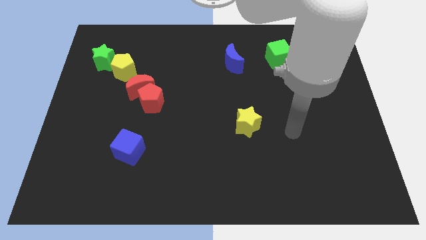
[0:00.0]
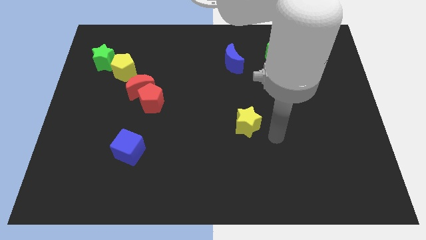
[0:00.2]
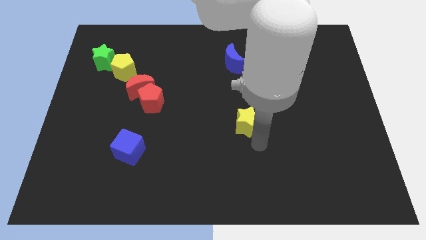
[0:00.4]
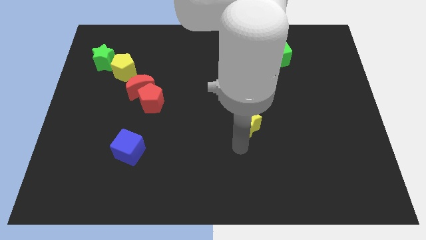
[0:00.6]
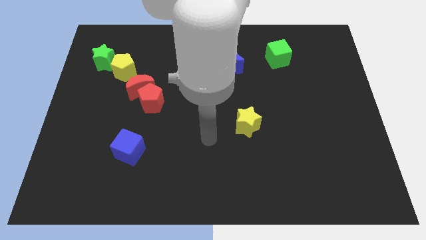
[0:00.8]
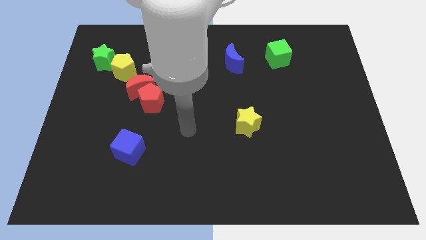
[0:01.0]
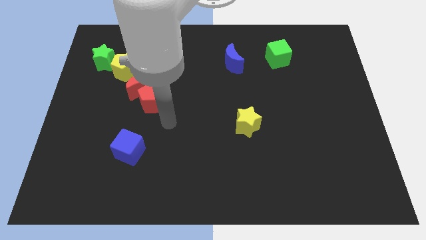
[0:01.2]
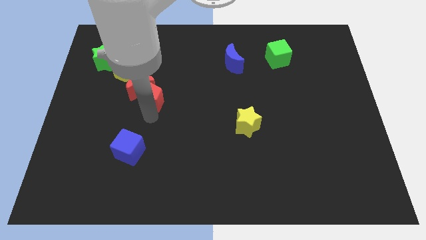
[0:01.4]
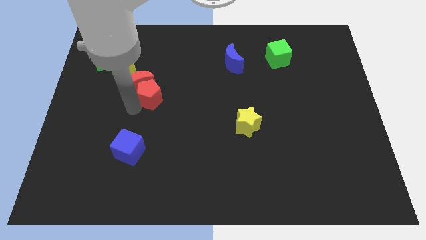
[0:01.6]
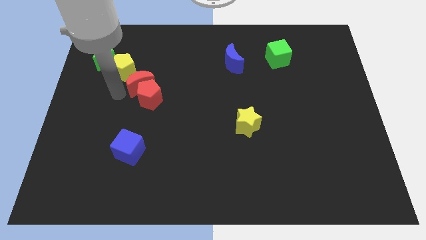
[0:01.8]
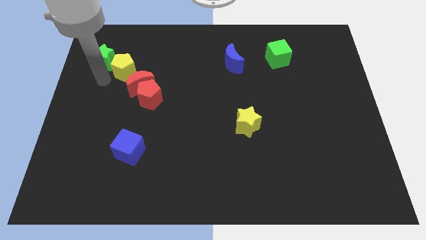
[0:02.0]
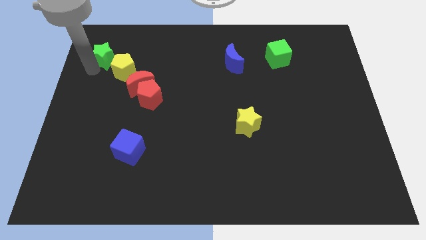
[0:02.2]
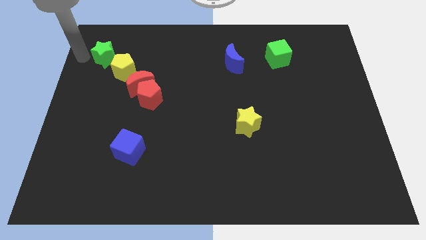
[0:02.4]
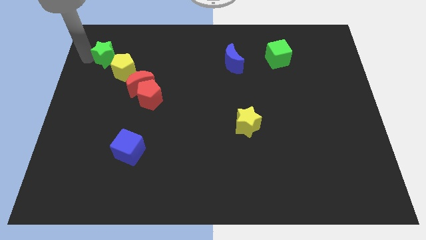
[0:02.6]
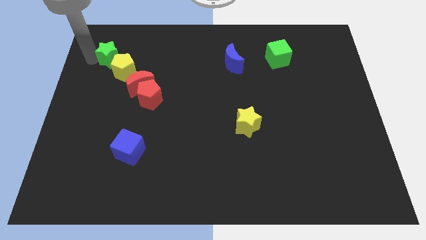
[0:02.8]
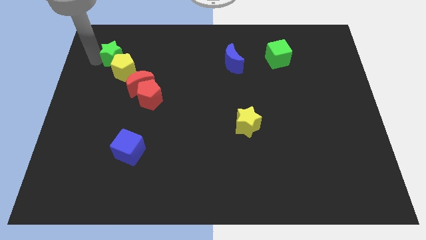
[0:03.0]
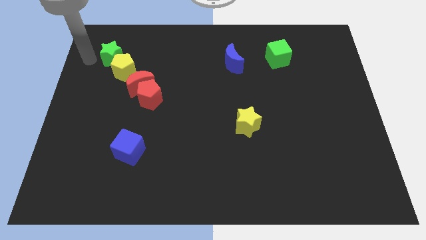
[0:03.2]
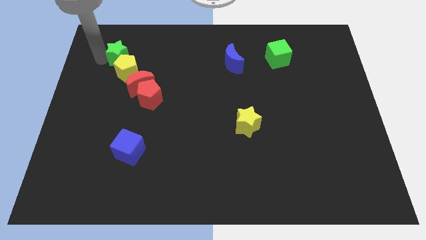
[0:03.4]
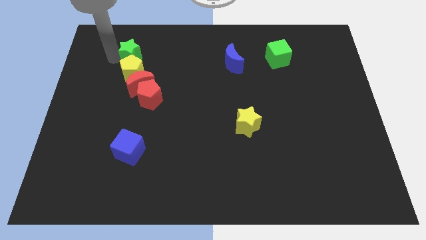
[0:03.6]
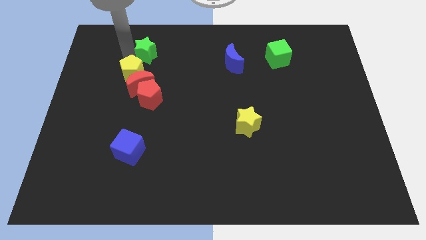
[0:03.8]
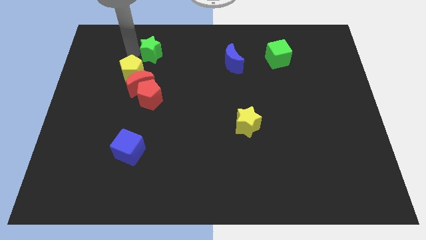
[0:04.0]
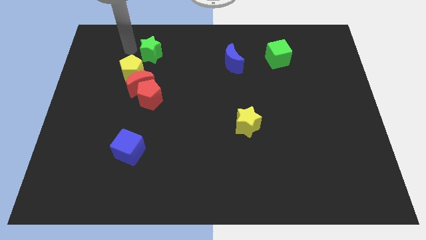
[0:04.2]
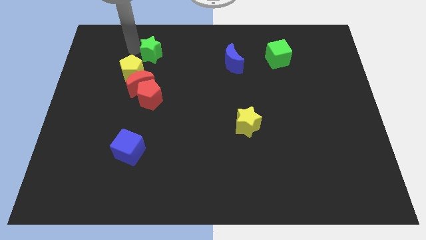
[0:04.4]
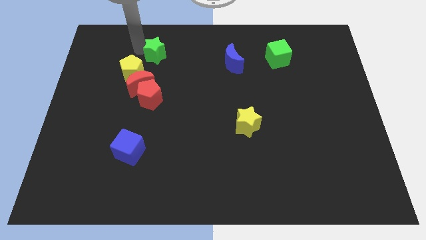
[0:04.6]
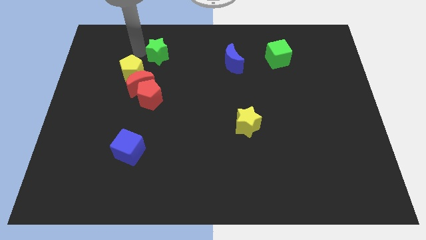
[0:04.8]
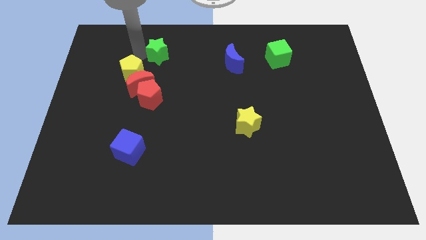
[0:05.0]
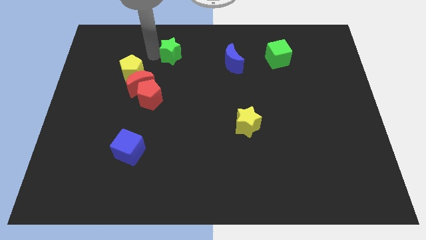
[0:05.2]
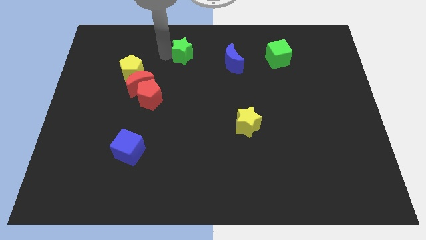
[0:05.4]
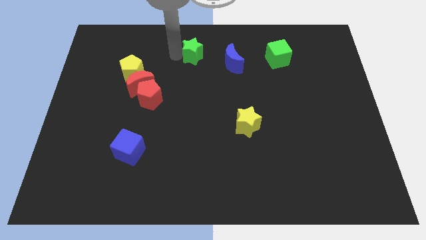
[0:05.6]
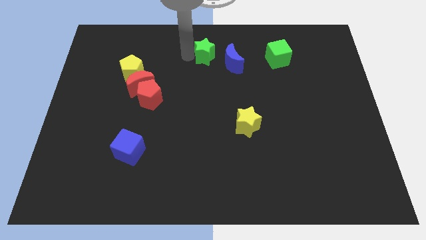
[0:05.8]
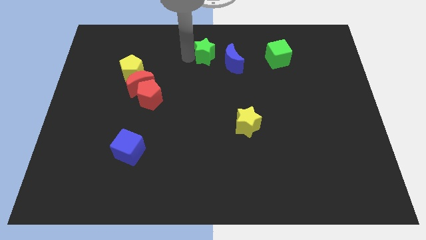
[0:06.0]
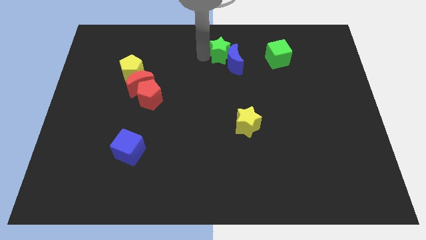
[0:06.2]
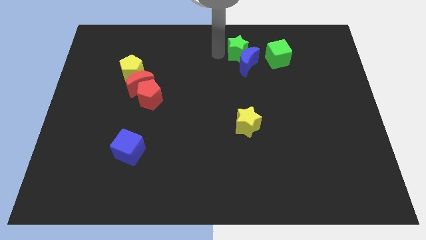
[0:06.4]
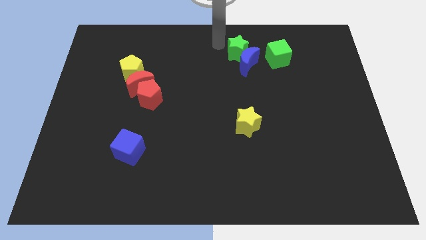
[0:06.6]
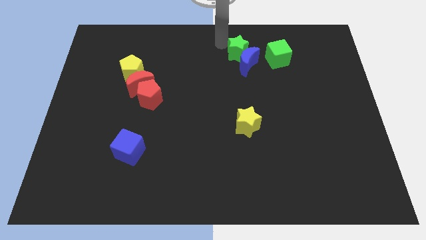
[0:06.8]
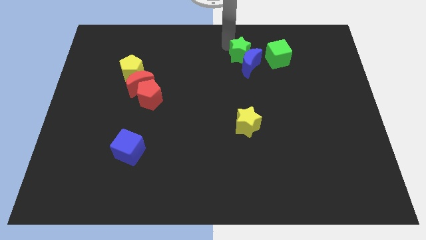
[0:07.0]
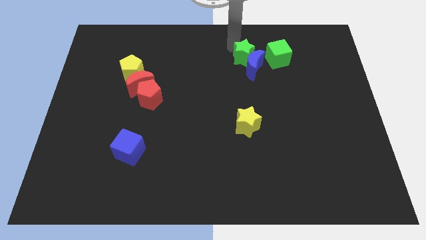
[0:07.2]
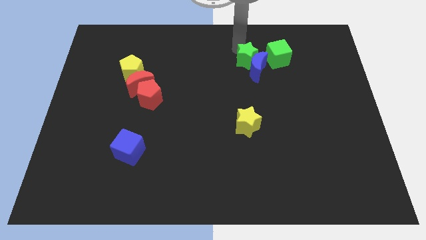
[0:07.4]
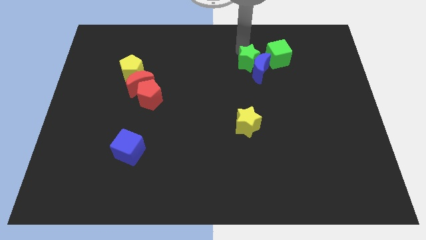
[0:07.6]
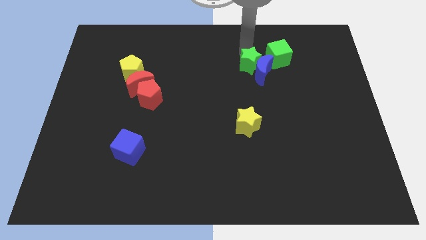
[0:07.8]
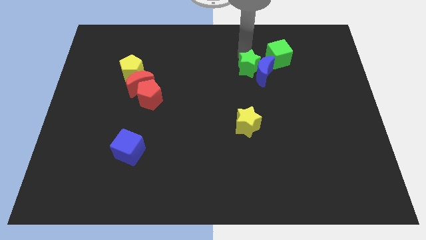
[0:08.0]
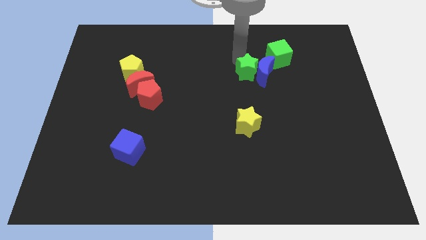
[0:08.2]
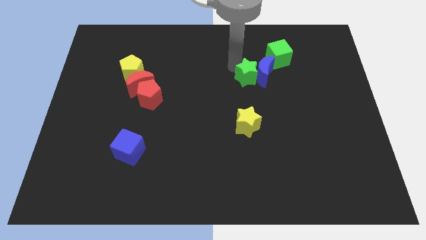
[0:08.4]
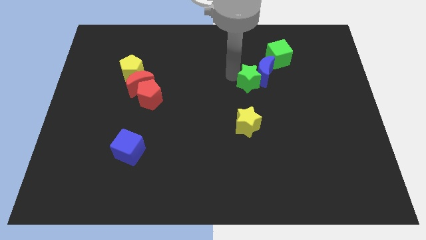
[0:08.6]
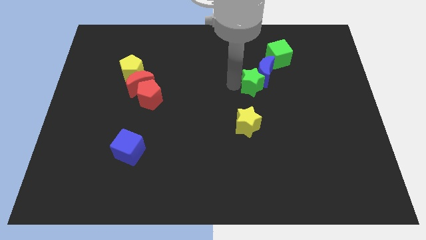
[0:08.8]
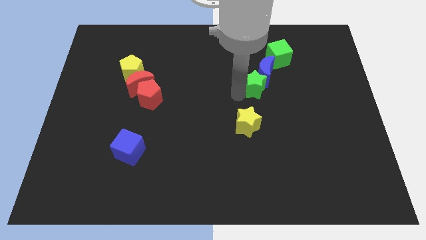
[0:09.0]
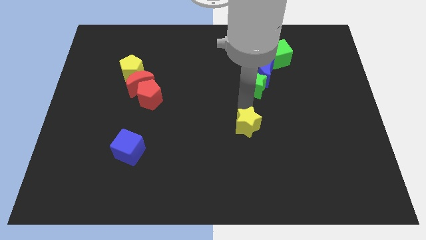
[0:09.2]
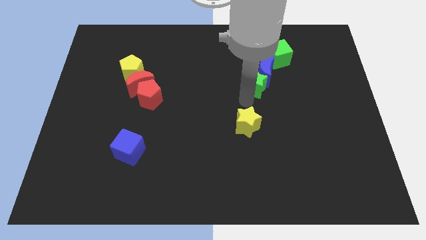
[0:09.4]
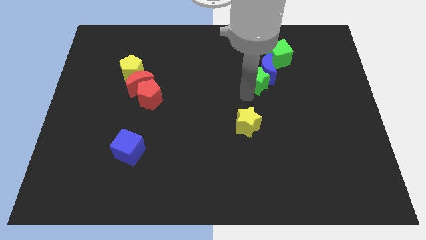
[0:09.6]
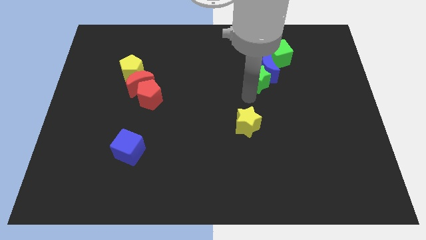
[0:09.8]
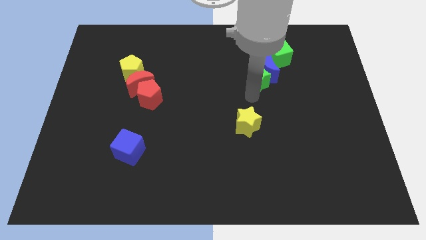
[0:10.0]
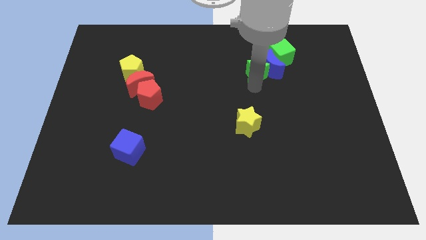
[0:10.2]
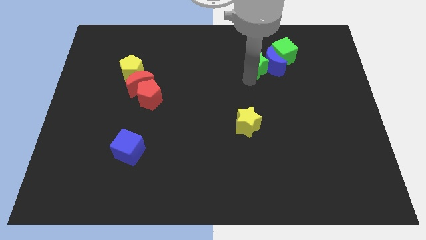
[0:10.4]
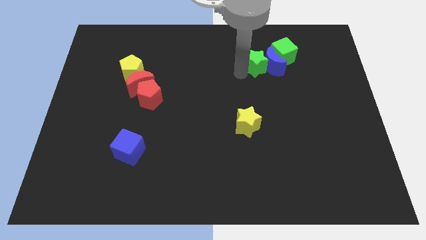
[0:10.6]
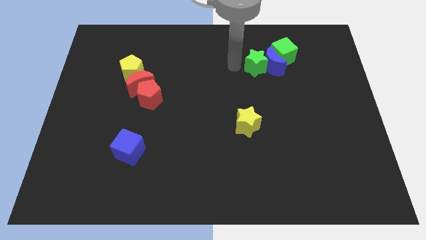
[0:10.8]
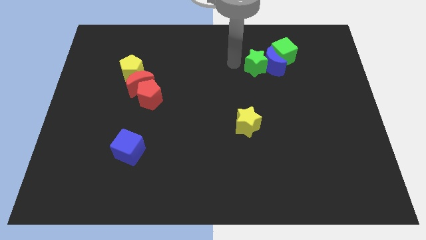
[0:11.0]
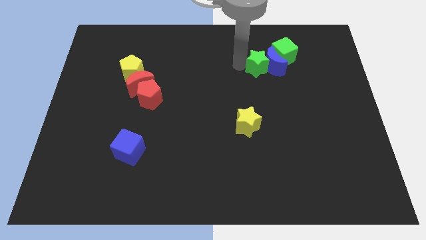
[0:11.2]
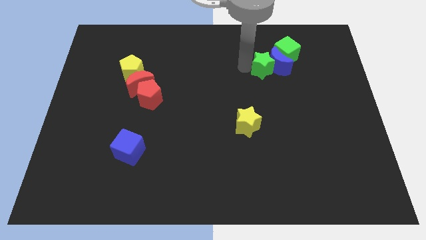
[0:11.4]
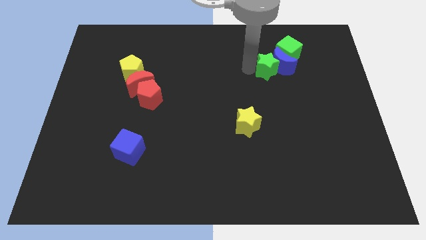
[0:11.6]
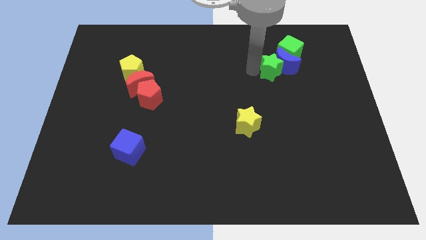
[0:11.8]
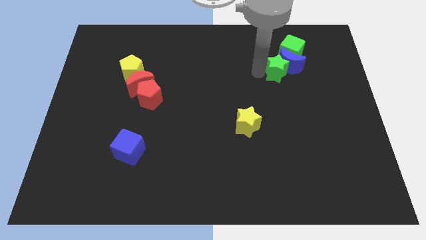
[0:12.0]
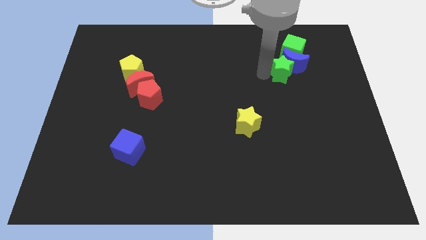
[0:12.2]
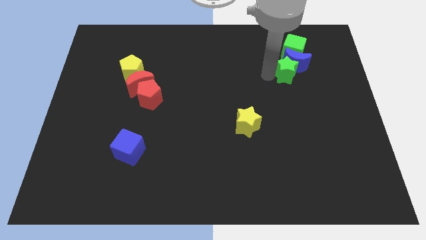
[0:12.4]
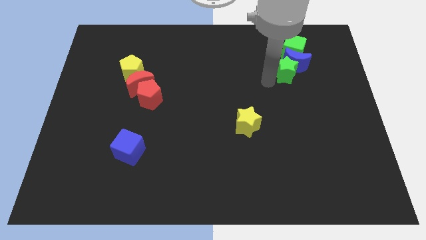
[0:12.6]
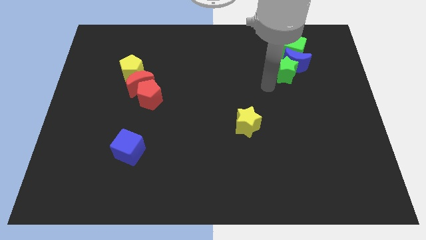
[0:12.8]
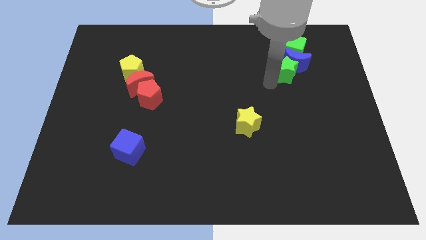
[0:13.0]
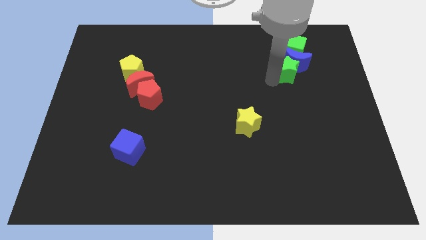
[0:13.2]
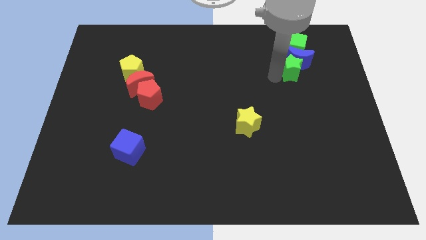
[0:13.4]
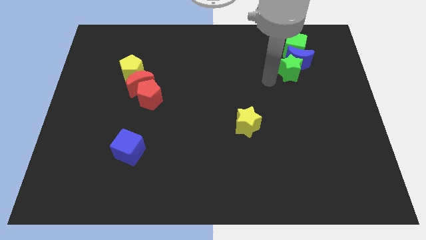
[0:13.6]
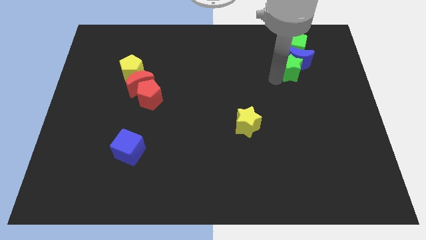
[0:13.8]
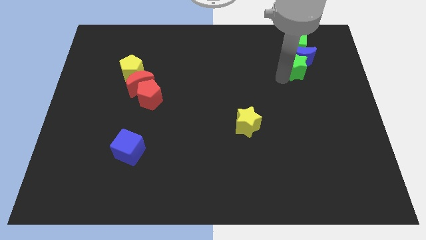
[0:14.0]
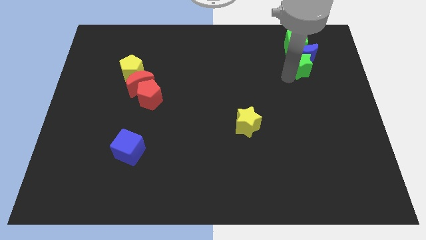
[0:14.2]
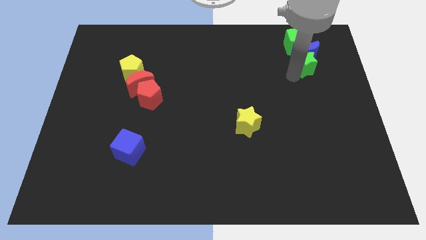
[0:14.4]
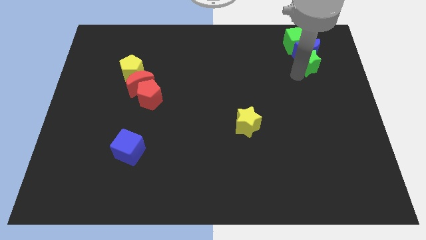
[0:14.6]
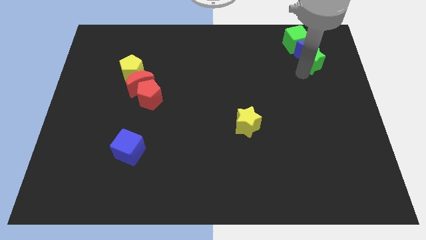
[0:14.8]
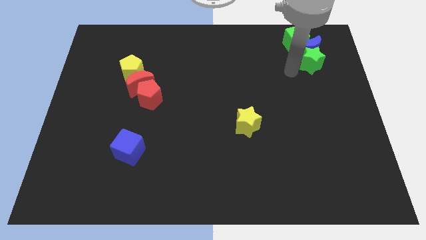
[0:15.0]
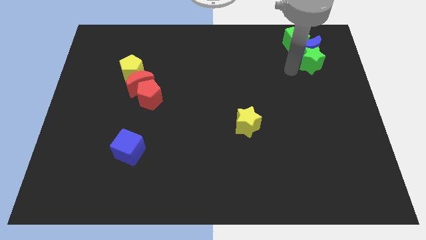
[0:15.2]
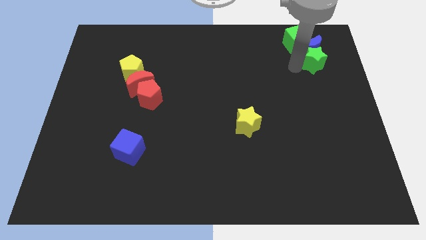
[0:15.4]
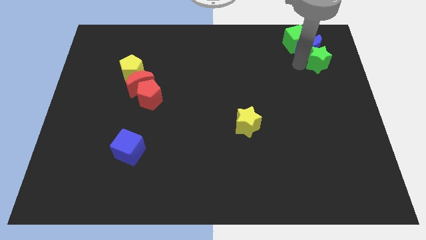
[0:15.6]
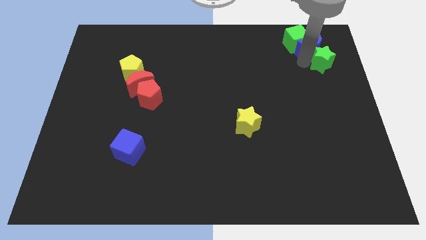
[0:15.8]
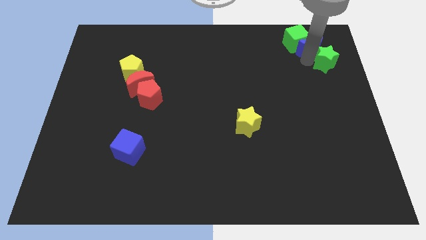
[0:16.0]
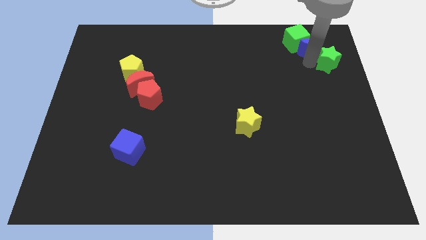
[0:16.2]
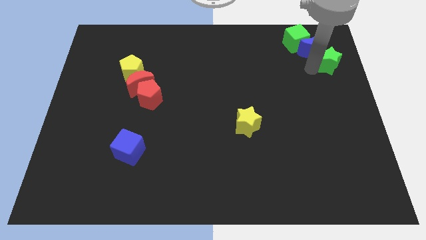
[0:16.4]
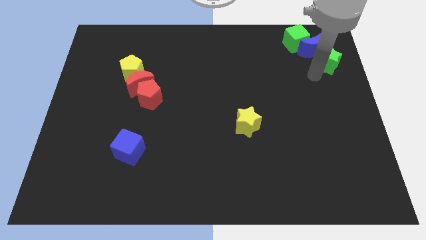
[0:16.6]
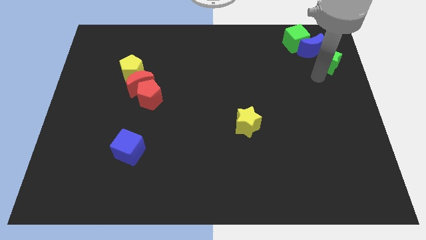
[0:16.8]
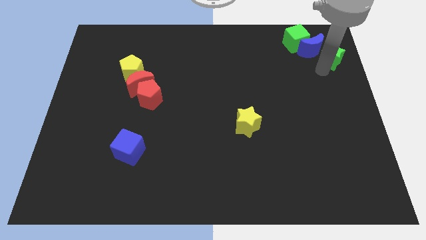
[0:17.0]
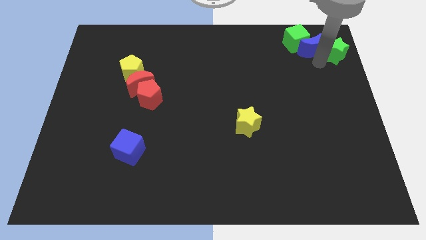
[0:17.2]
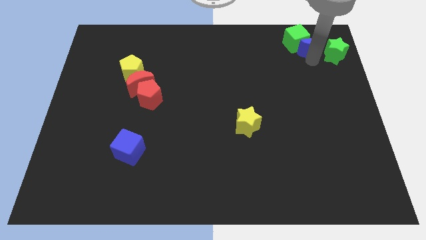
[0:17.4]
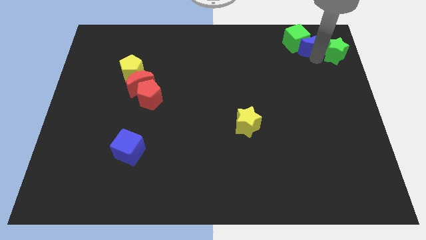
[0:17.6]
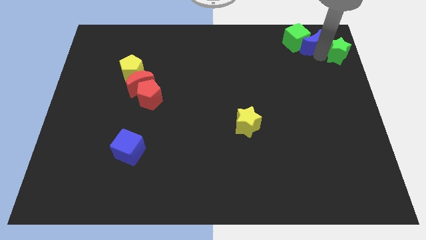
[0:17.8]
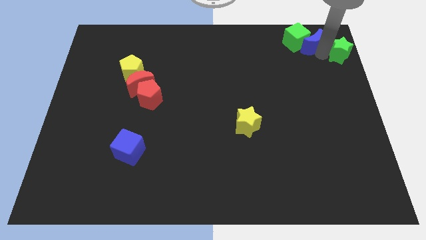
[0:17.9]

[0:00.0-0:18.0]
push the green star to the top right corner
